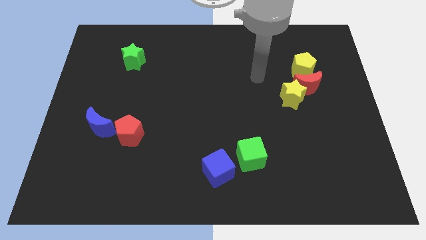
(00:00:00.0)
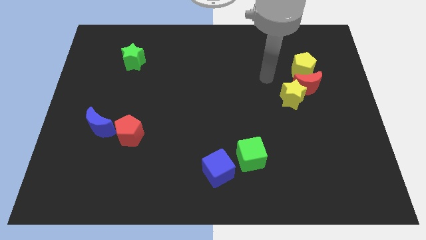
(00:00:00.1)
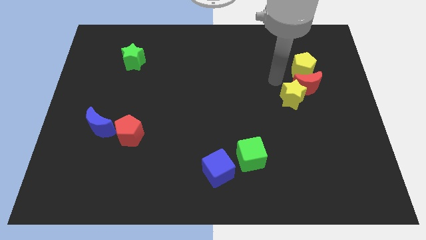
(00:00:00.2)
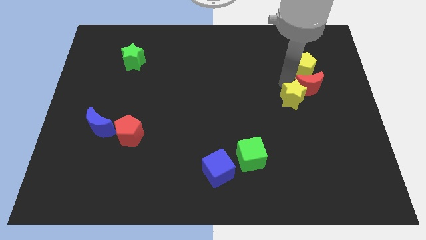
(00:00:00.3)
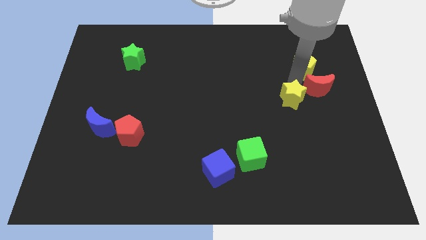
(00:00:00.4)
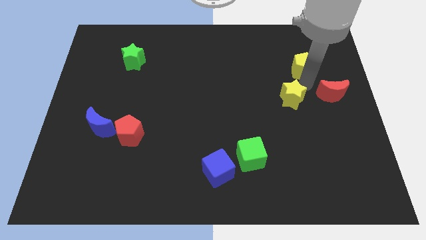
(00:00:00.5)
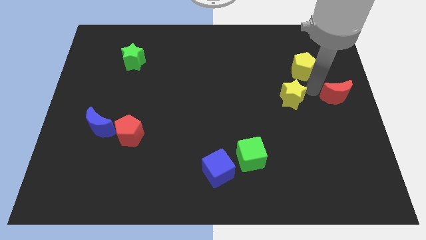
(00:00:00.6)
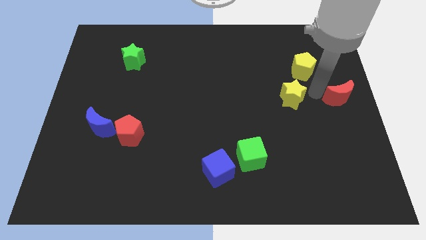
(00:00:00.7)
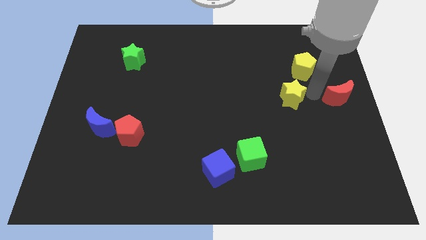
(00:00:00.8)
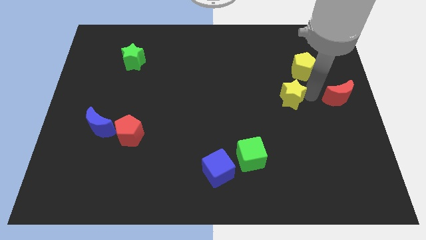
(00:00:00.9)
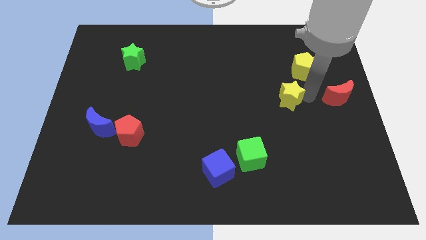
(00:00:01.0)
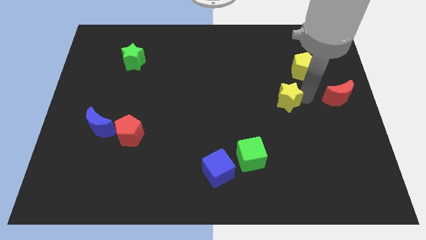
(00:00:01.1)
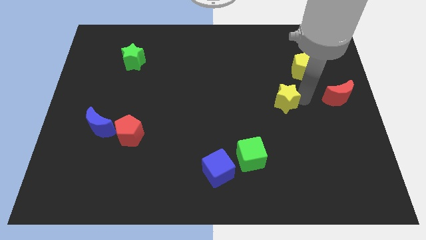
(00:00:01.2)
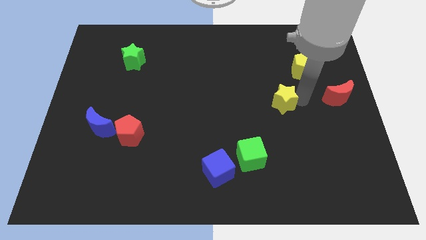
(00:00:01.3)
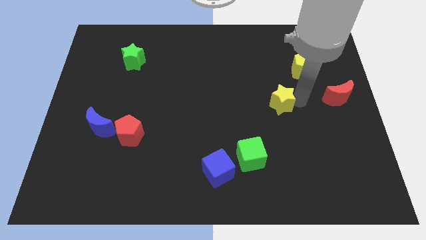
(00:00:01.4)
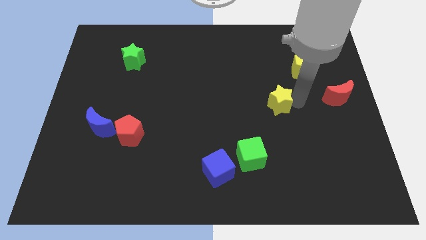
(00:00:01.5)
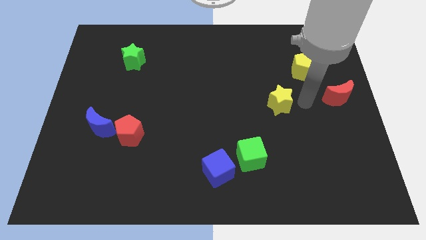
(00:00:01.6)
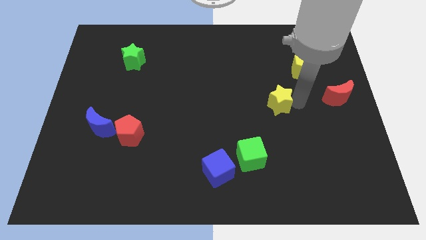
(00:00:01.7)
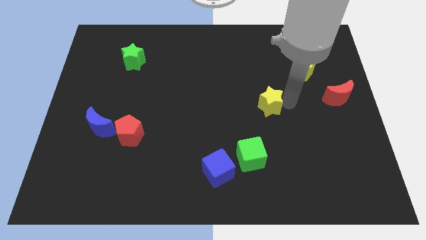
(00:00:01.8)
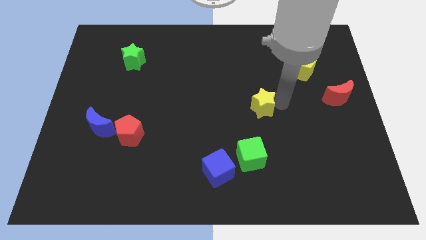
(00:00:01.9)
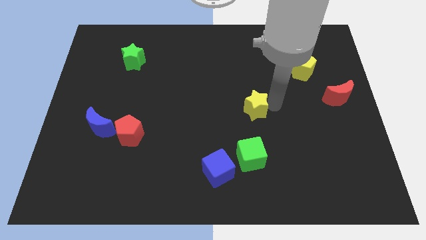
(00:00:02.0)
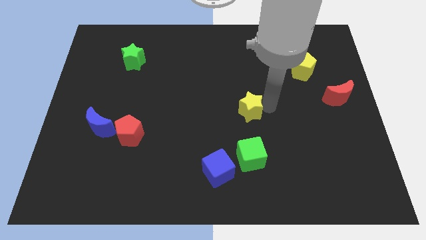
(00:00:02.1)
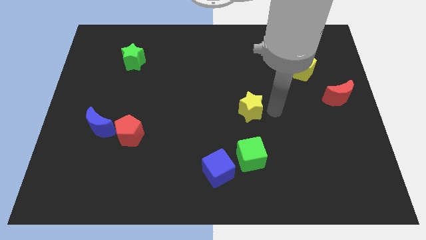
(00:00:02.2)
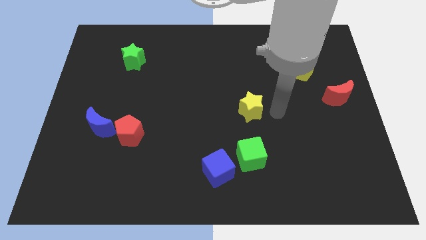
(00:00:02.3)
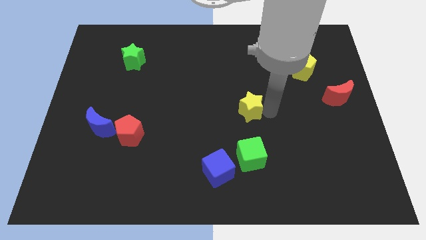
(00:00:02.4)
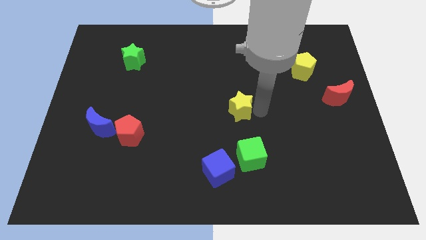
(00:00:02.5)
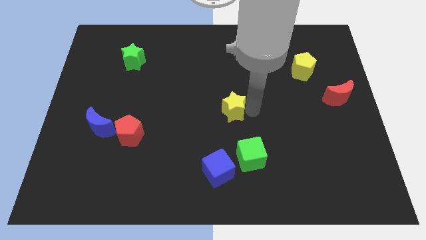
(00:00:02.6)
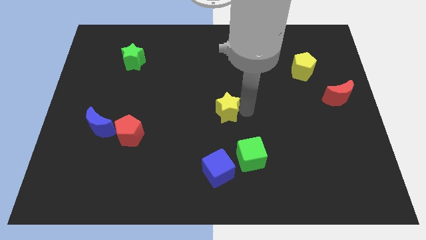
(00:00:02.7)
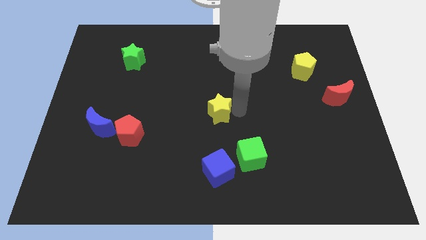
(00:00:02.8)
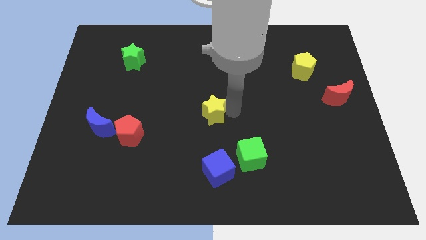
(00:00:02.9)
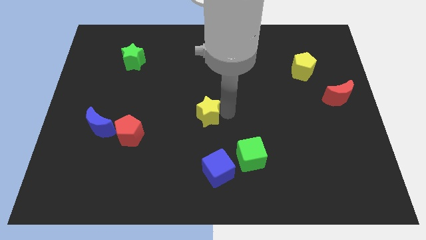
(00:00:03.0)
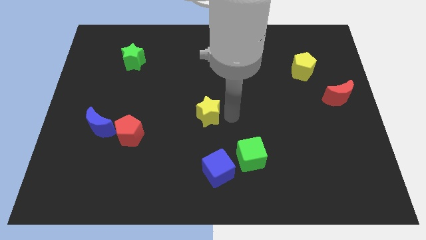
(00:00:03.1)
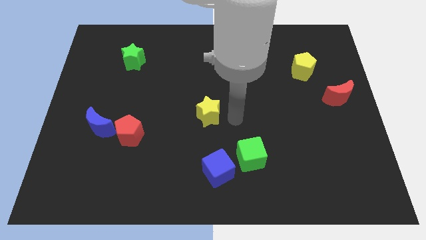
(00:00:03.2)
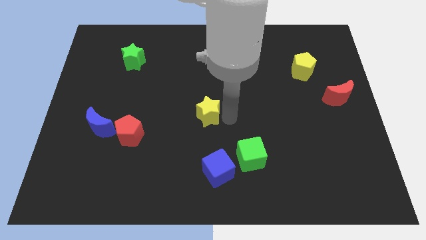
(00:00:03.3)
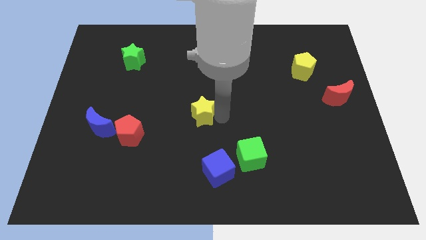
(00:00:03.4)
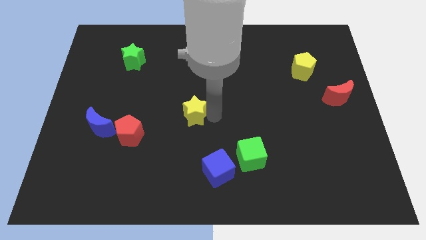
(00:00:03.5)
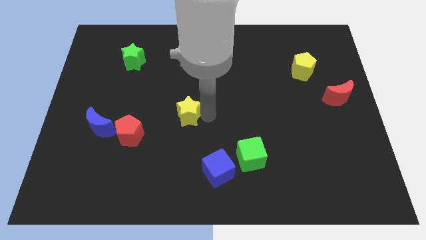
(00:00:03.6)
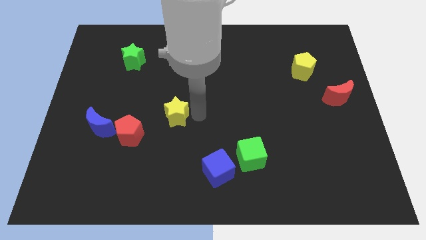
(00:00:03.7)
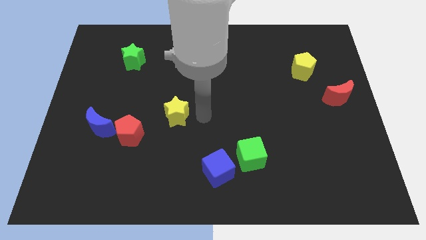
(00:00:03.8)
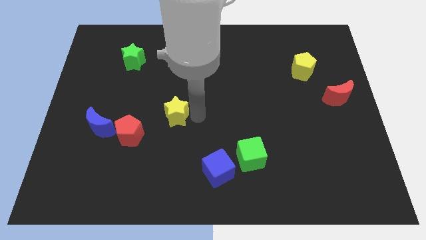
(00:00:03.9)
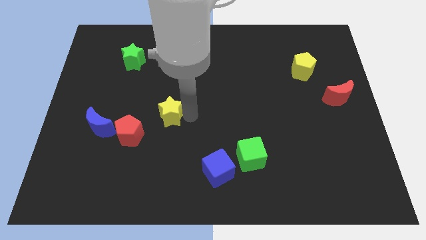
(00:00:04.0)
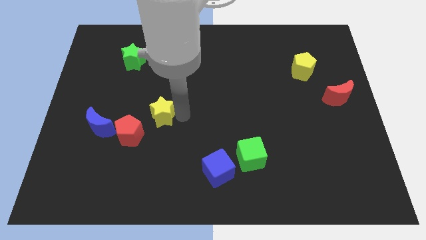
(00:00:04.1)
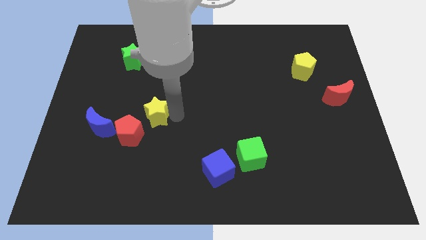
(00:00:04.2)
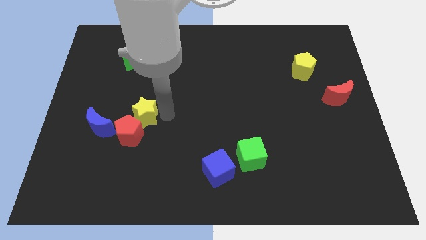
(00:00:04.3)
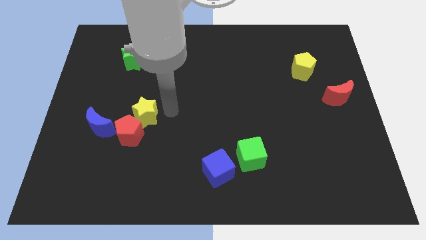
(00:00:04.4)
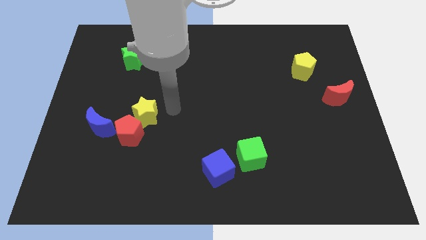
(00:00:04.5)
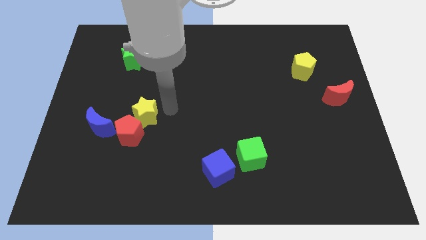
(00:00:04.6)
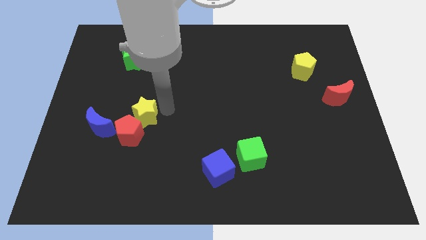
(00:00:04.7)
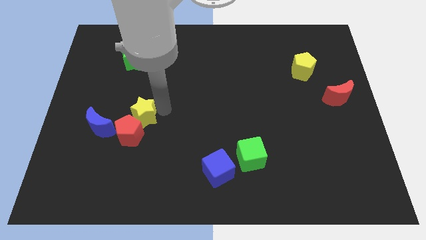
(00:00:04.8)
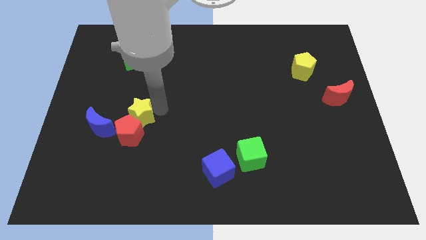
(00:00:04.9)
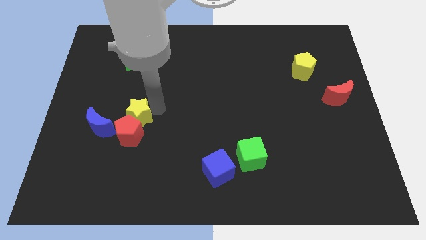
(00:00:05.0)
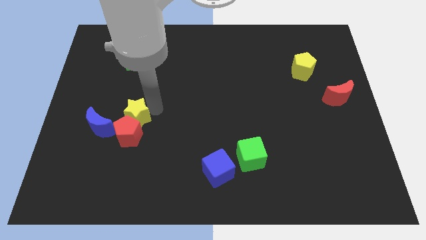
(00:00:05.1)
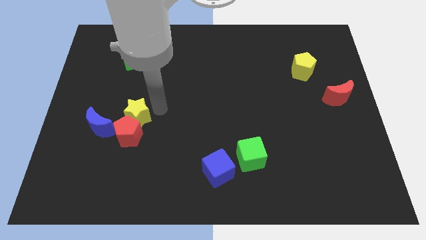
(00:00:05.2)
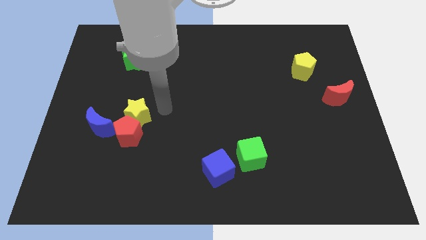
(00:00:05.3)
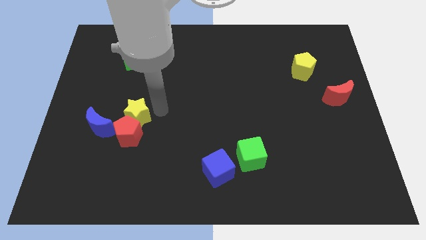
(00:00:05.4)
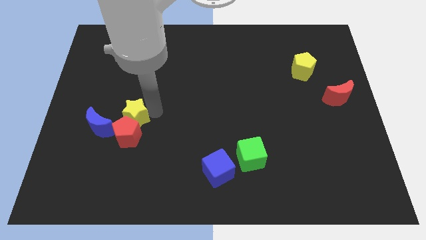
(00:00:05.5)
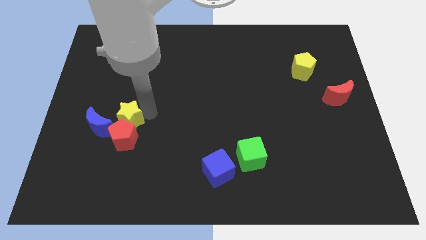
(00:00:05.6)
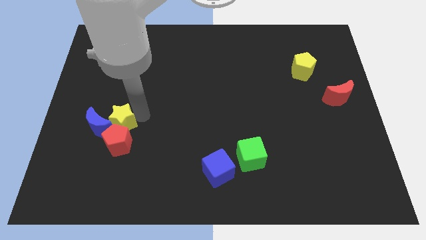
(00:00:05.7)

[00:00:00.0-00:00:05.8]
put the yellow star towards the blue moon

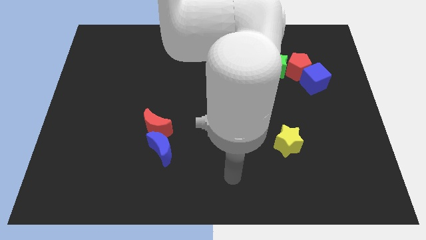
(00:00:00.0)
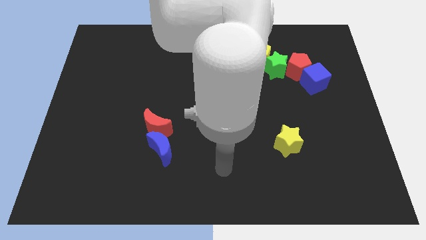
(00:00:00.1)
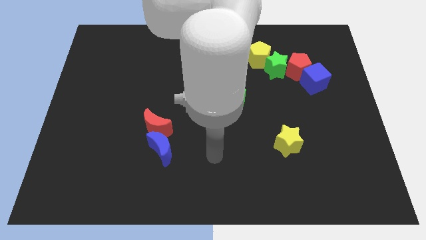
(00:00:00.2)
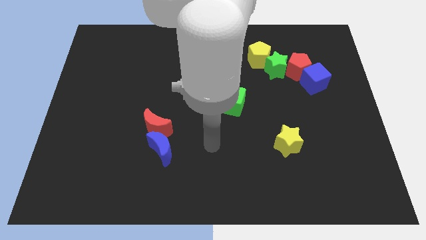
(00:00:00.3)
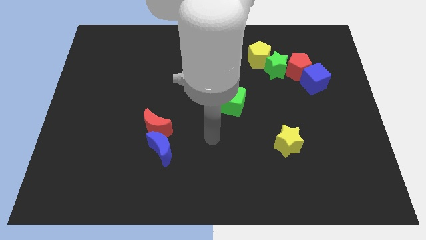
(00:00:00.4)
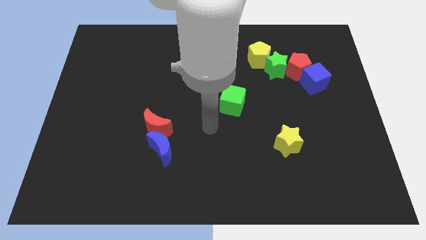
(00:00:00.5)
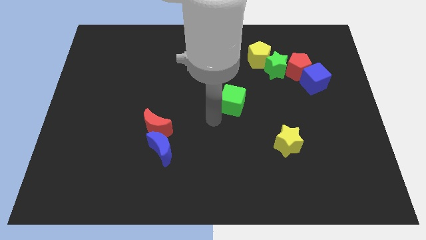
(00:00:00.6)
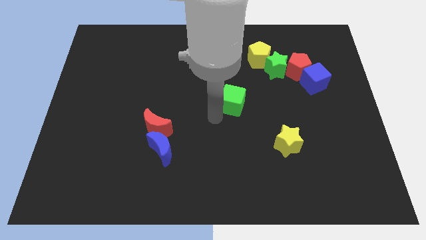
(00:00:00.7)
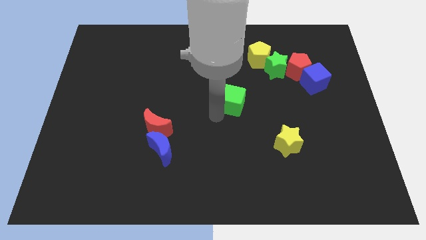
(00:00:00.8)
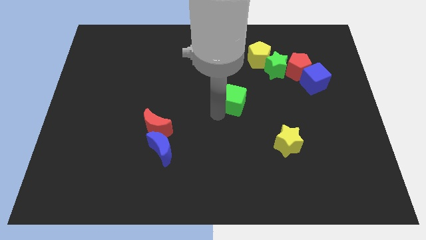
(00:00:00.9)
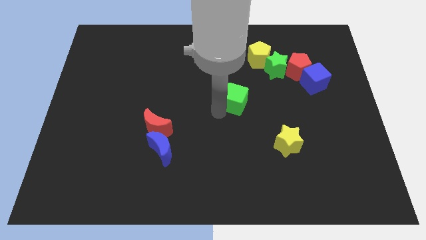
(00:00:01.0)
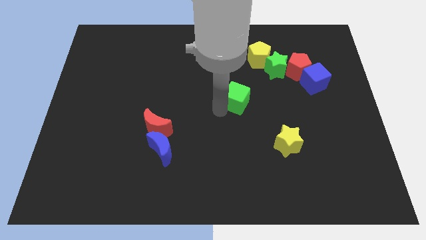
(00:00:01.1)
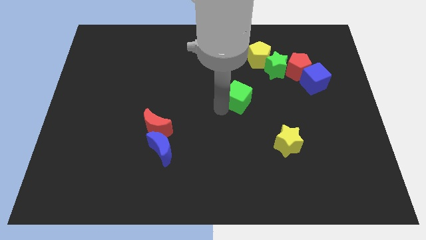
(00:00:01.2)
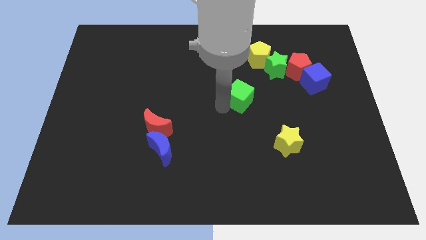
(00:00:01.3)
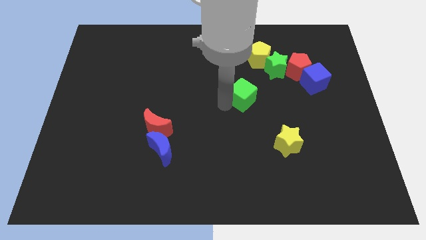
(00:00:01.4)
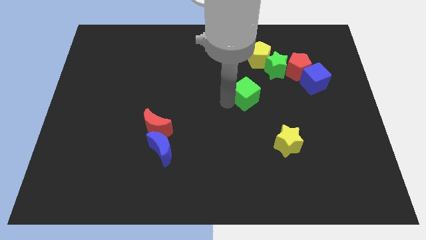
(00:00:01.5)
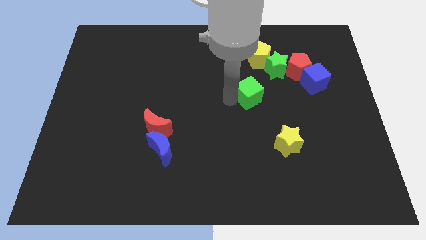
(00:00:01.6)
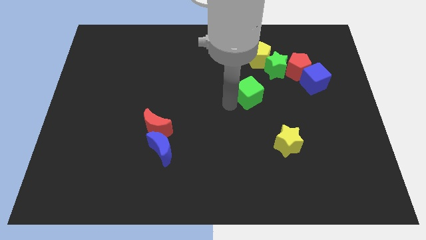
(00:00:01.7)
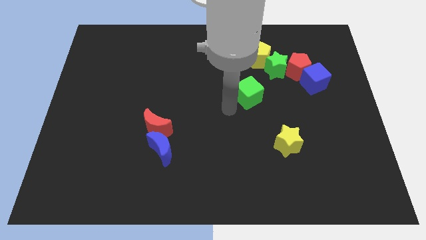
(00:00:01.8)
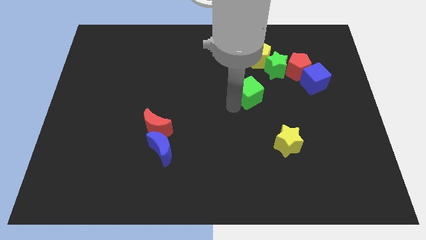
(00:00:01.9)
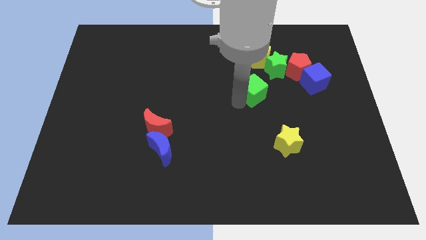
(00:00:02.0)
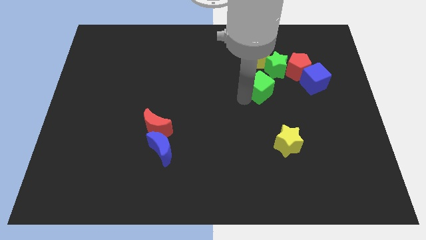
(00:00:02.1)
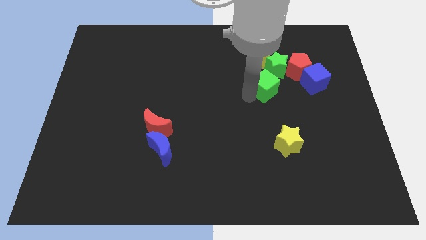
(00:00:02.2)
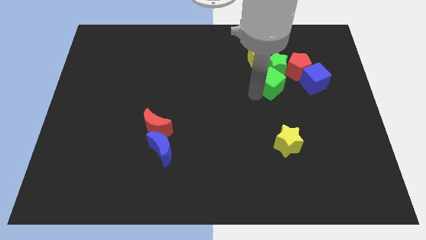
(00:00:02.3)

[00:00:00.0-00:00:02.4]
push the green cube close to the green star
